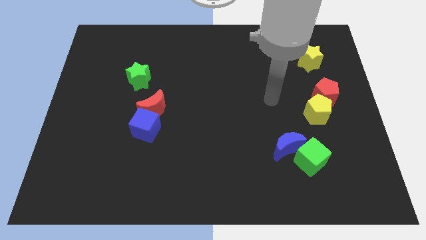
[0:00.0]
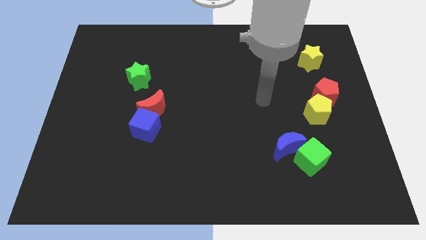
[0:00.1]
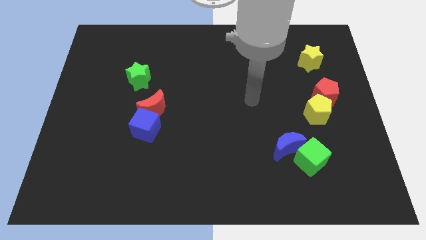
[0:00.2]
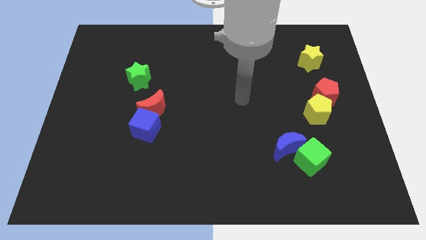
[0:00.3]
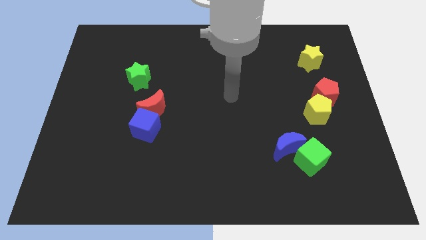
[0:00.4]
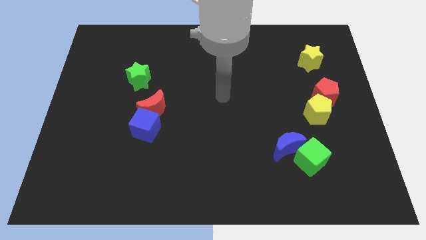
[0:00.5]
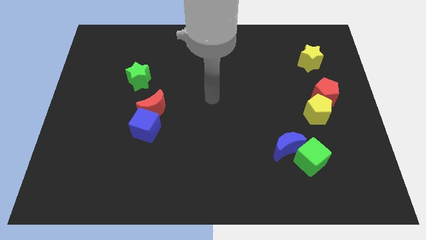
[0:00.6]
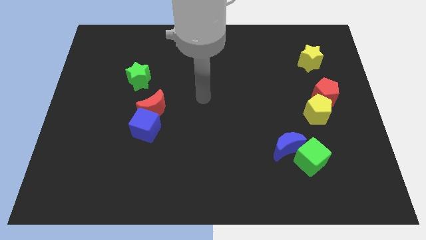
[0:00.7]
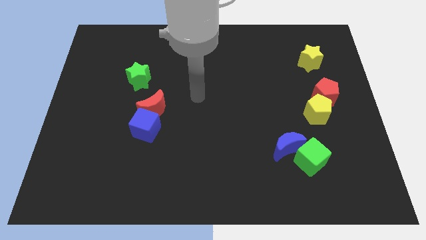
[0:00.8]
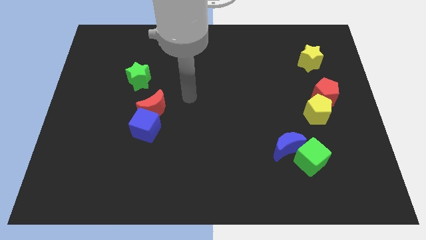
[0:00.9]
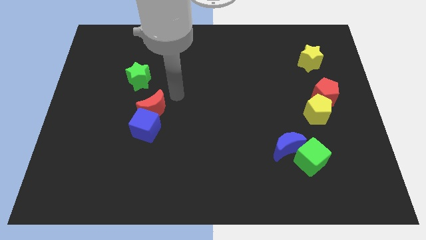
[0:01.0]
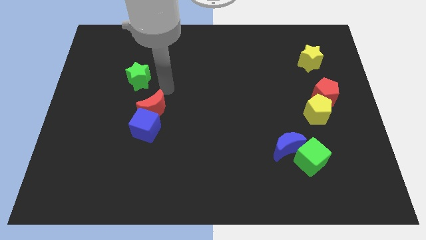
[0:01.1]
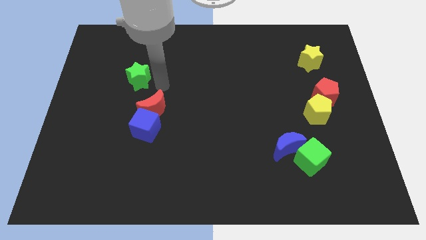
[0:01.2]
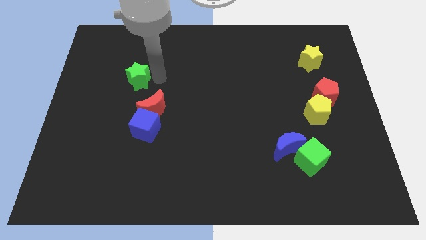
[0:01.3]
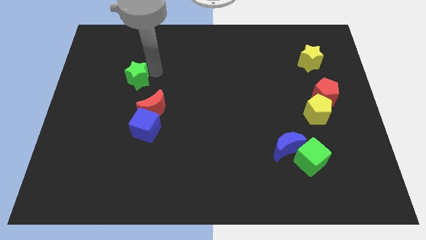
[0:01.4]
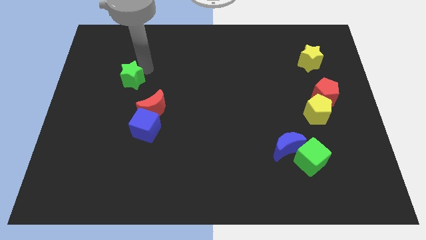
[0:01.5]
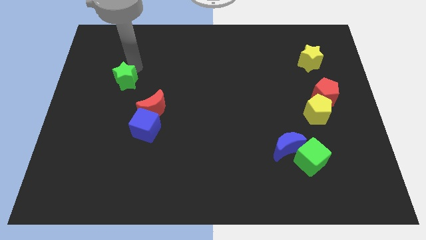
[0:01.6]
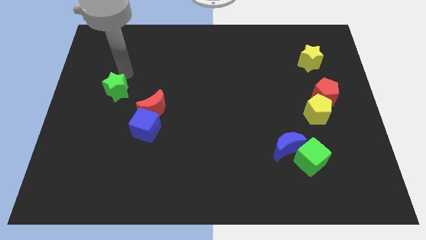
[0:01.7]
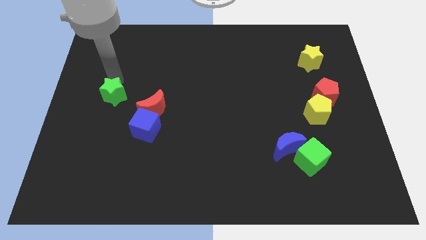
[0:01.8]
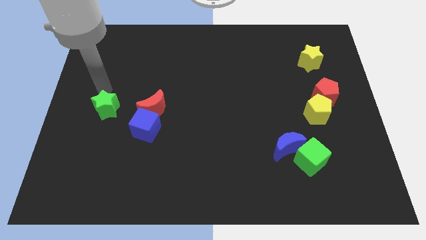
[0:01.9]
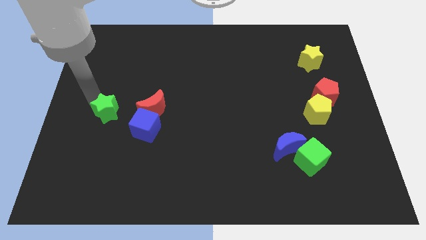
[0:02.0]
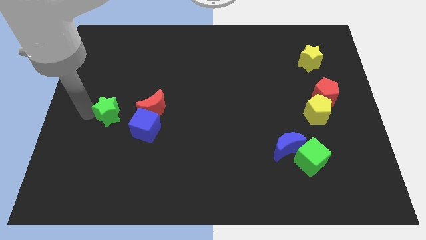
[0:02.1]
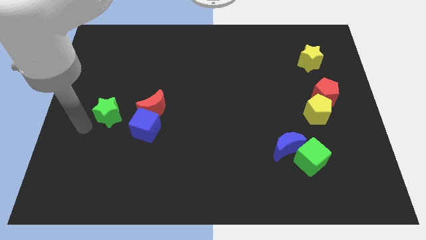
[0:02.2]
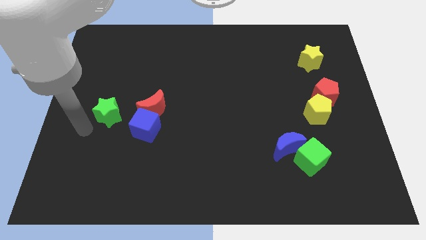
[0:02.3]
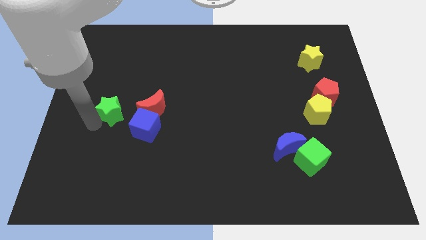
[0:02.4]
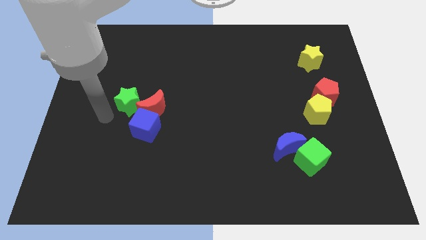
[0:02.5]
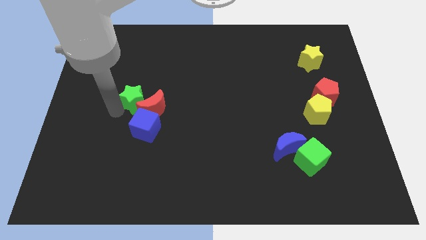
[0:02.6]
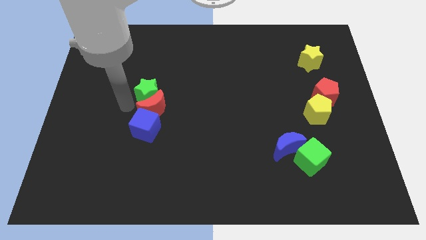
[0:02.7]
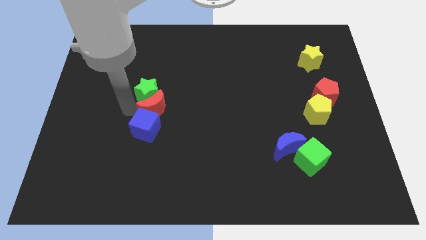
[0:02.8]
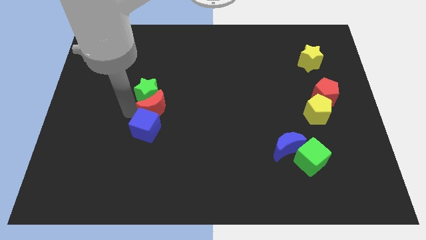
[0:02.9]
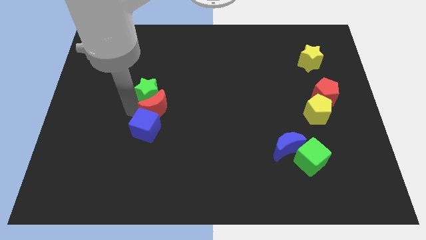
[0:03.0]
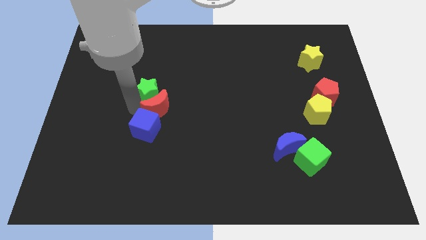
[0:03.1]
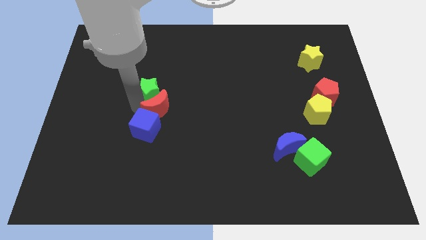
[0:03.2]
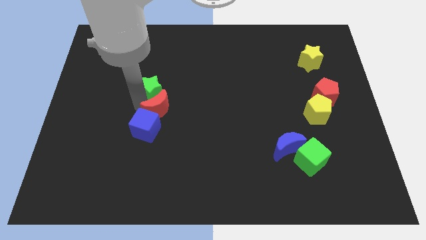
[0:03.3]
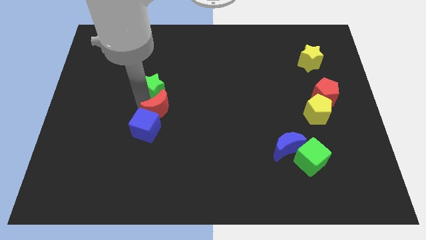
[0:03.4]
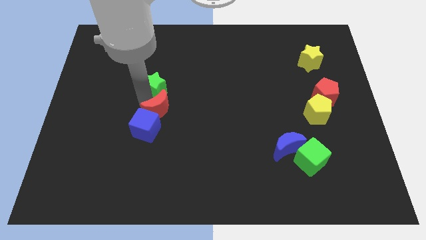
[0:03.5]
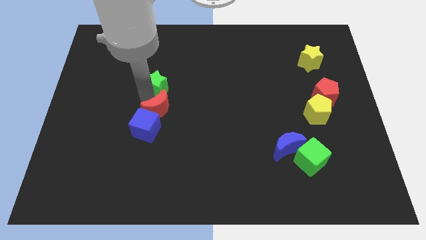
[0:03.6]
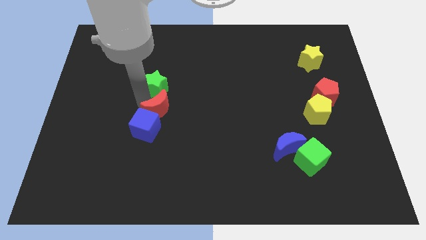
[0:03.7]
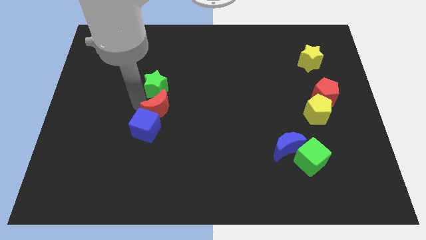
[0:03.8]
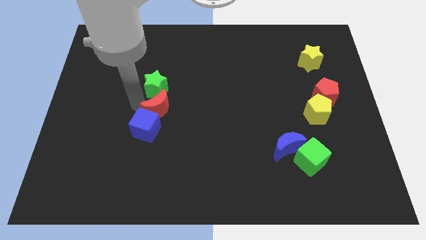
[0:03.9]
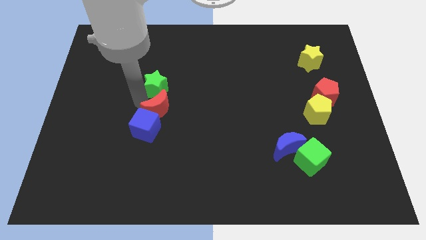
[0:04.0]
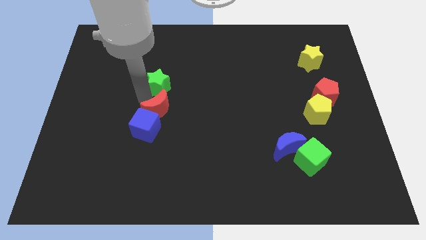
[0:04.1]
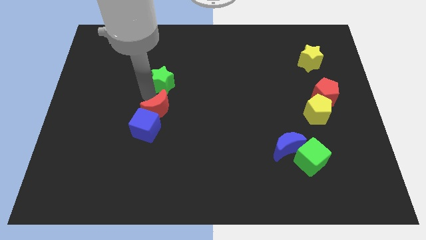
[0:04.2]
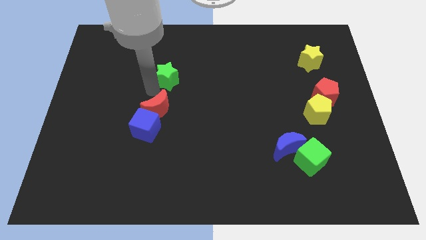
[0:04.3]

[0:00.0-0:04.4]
push the green star to the right a bit

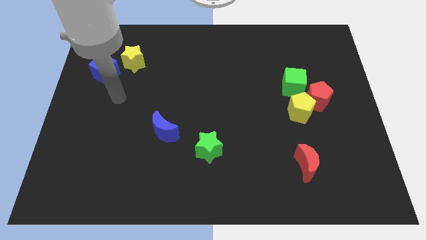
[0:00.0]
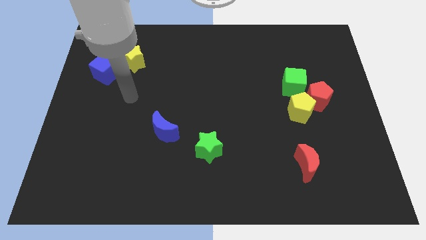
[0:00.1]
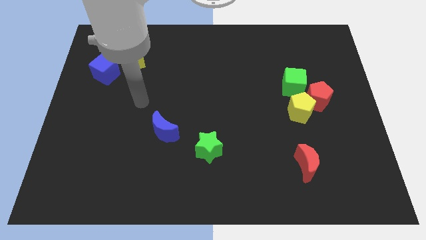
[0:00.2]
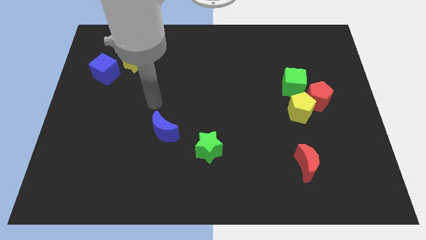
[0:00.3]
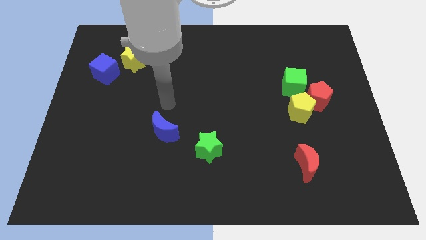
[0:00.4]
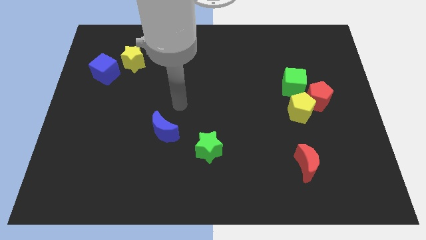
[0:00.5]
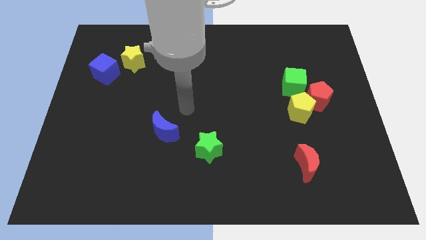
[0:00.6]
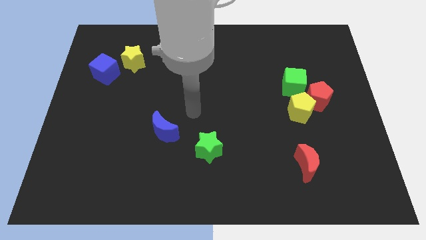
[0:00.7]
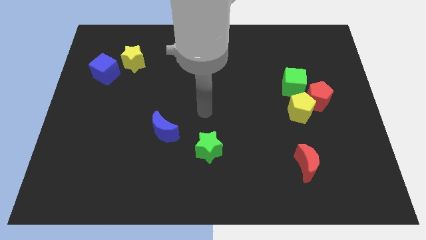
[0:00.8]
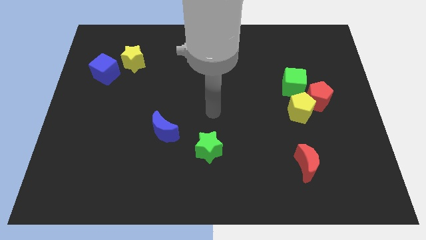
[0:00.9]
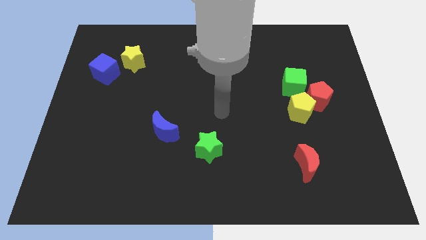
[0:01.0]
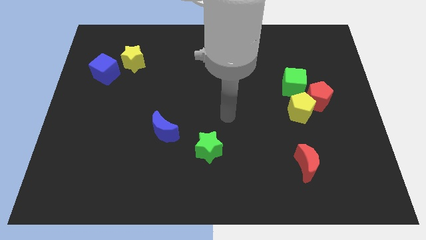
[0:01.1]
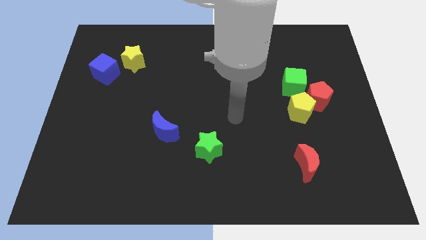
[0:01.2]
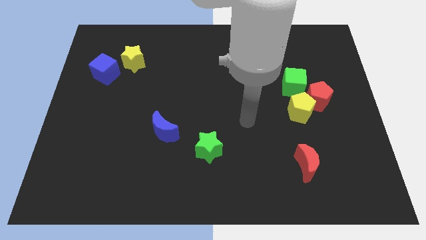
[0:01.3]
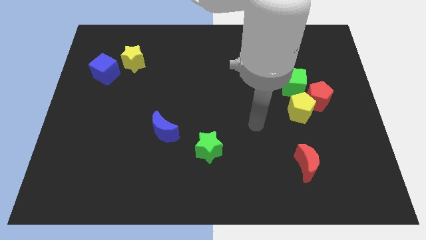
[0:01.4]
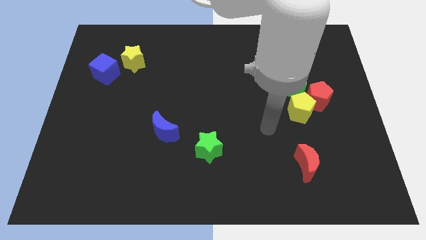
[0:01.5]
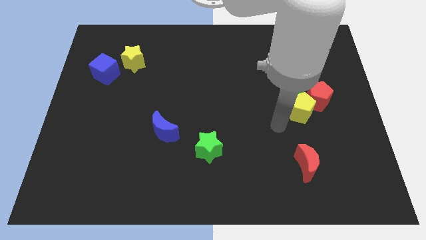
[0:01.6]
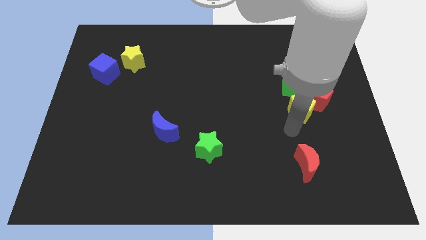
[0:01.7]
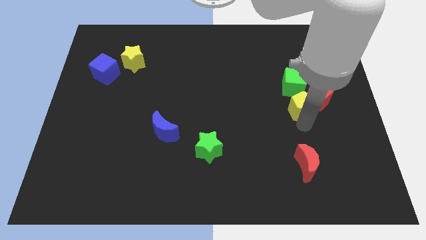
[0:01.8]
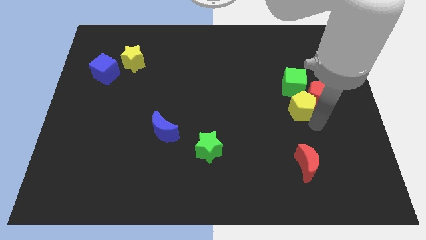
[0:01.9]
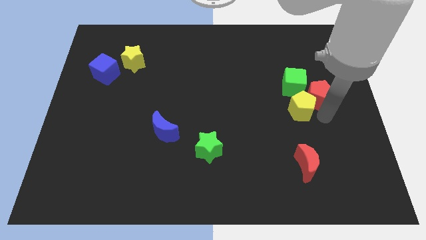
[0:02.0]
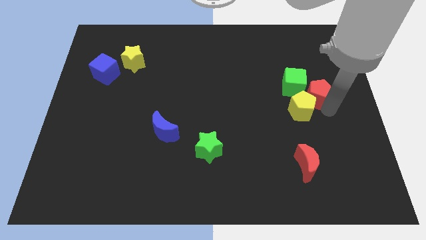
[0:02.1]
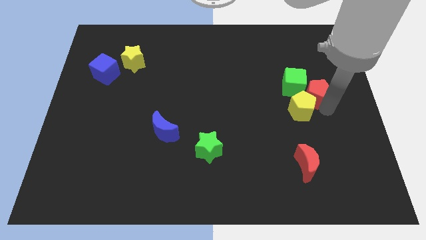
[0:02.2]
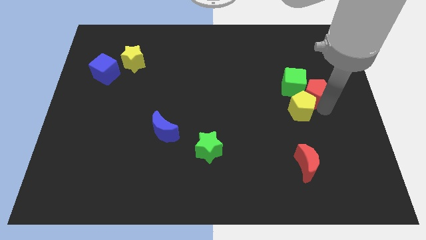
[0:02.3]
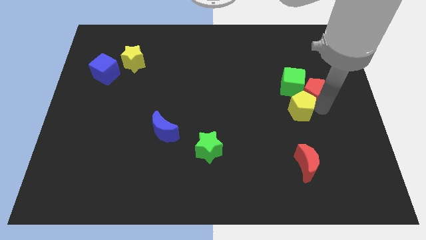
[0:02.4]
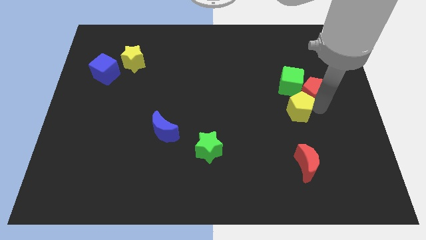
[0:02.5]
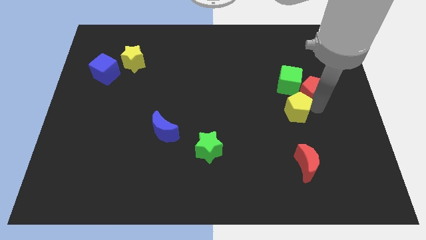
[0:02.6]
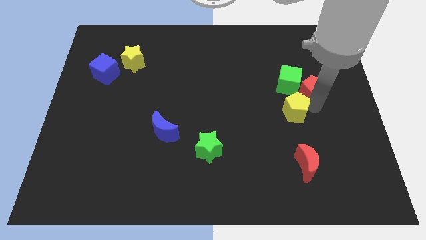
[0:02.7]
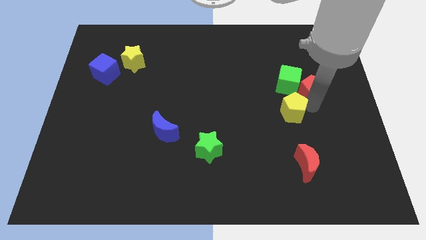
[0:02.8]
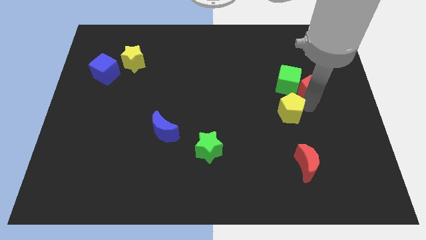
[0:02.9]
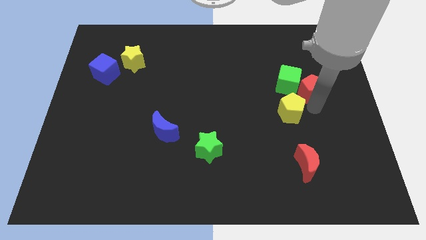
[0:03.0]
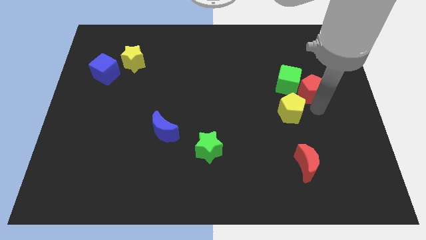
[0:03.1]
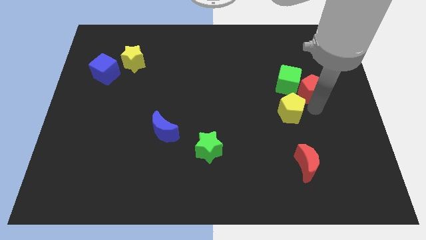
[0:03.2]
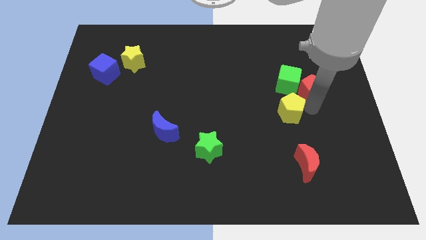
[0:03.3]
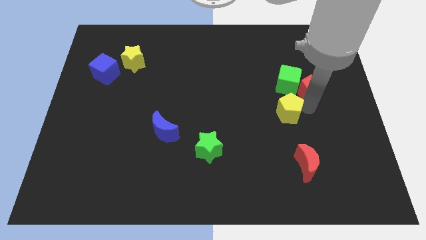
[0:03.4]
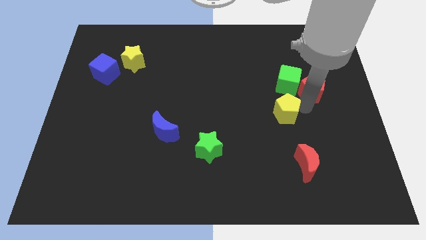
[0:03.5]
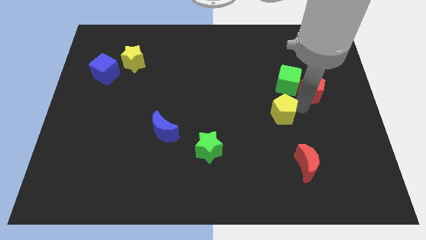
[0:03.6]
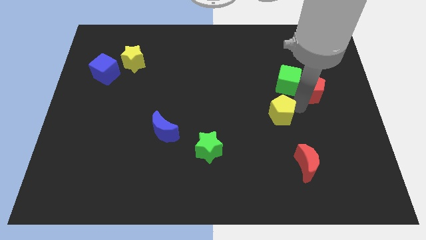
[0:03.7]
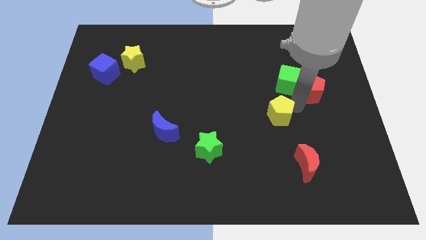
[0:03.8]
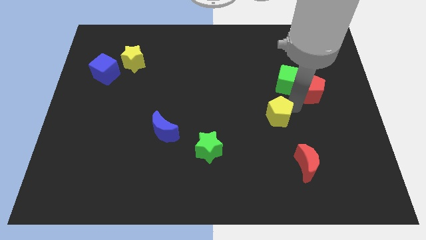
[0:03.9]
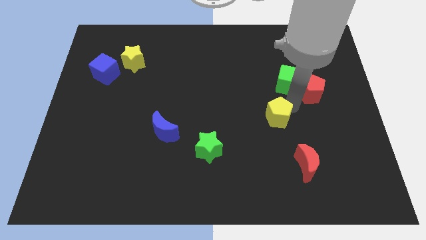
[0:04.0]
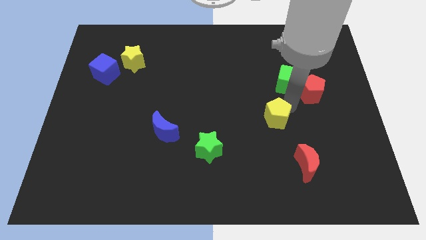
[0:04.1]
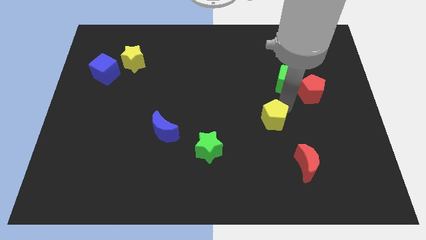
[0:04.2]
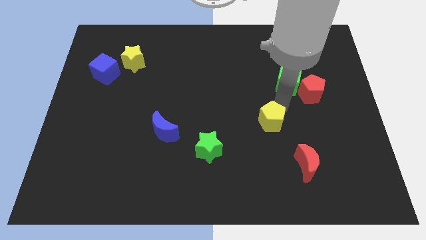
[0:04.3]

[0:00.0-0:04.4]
push the yellow pentagon to the left a little bit
